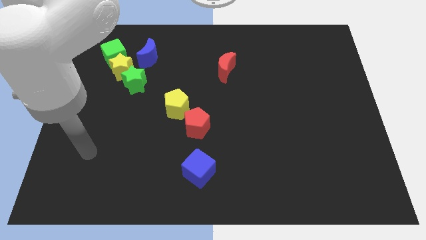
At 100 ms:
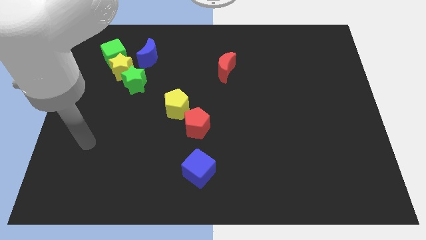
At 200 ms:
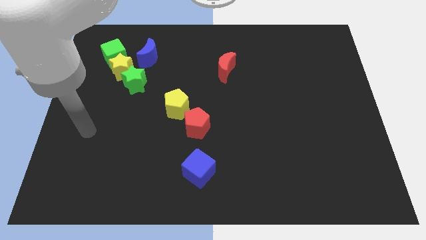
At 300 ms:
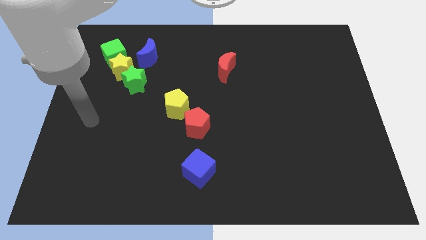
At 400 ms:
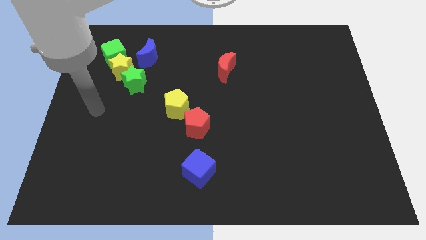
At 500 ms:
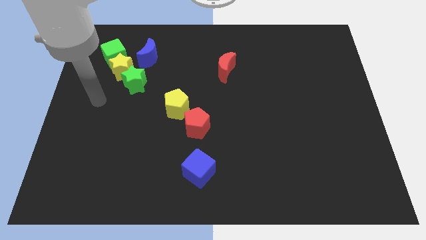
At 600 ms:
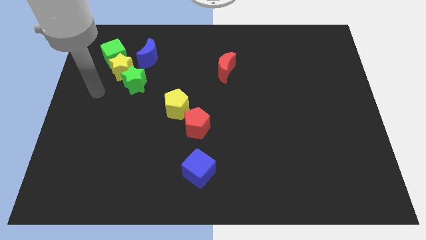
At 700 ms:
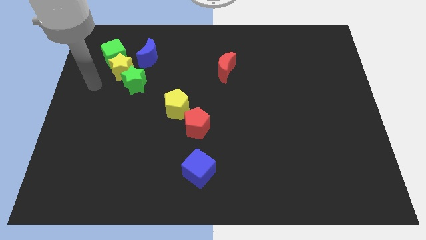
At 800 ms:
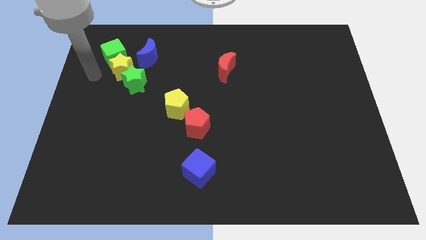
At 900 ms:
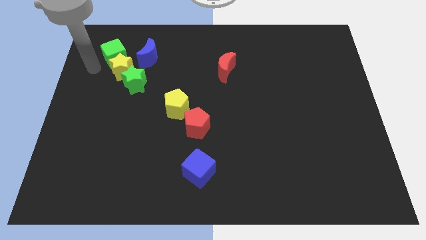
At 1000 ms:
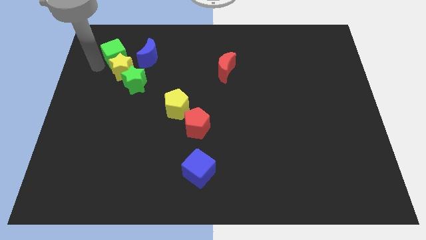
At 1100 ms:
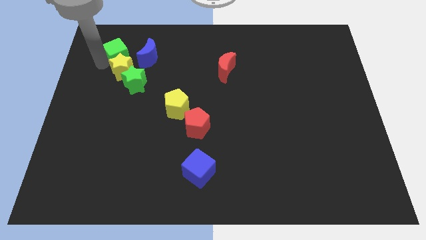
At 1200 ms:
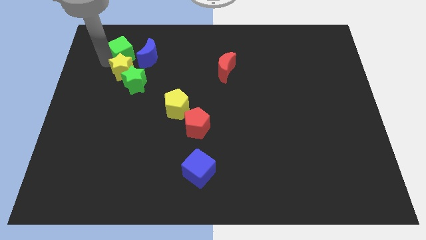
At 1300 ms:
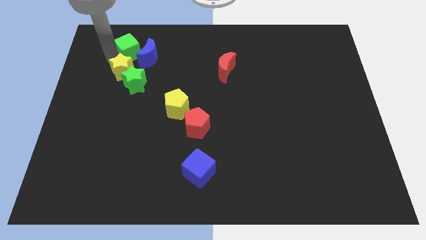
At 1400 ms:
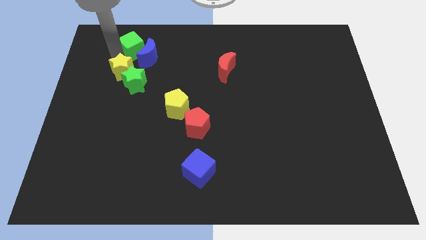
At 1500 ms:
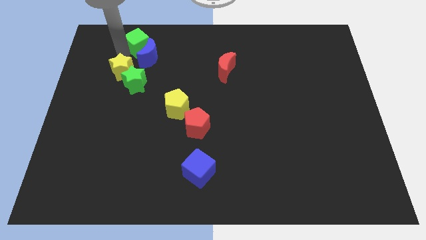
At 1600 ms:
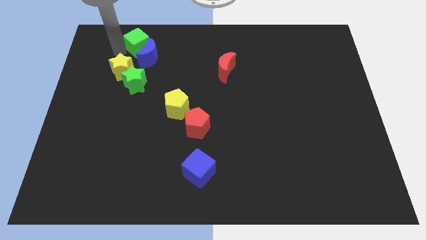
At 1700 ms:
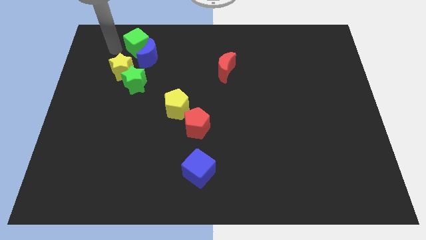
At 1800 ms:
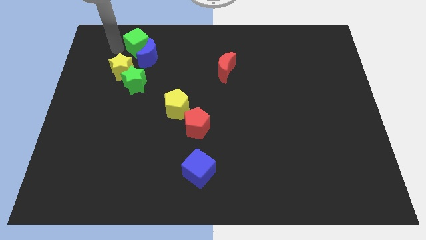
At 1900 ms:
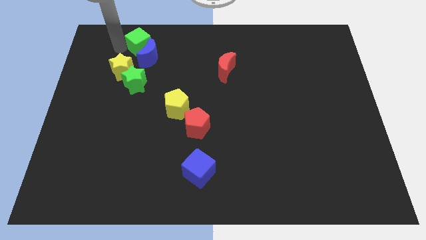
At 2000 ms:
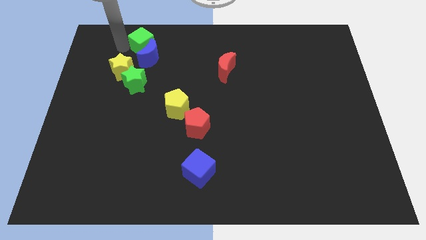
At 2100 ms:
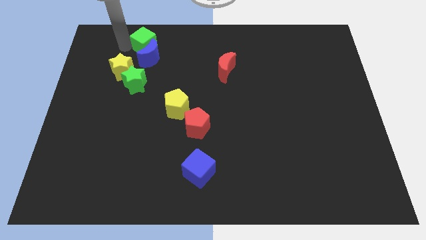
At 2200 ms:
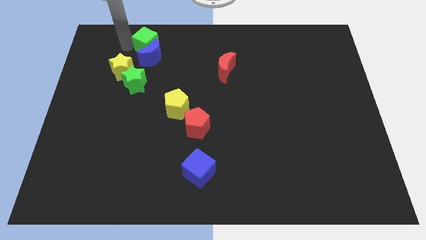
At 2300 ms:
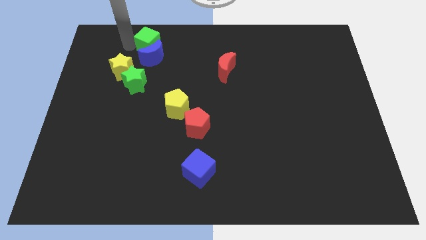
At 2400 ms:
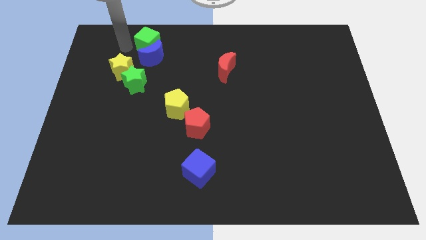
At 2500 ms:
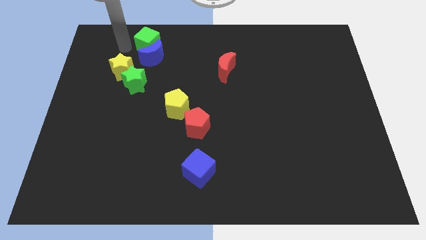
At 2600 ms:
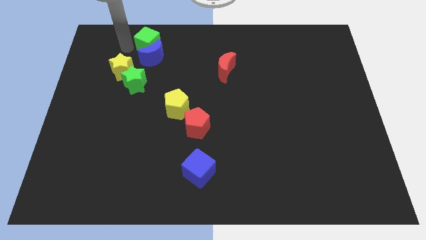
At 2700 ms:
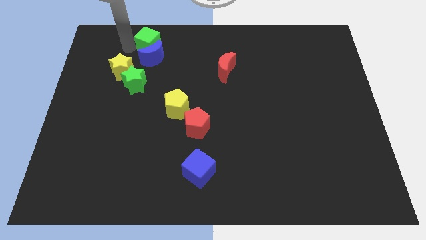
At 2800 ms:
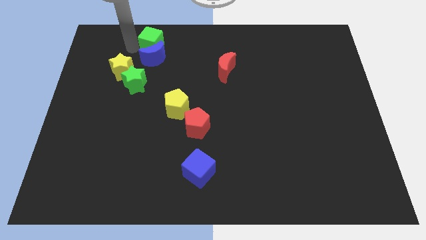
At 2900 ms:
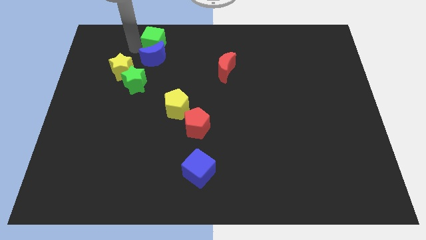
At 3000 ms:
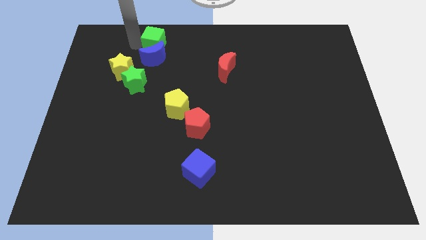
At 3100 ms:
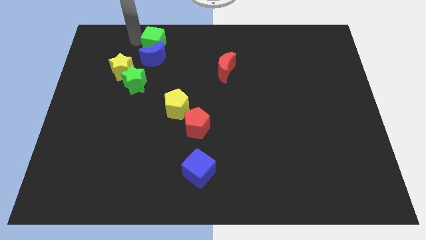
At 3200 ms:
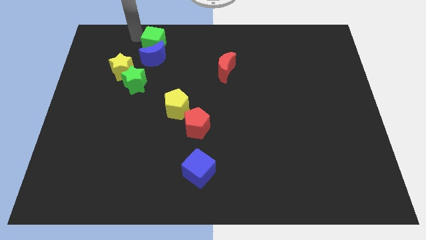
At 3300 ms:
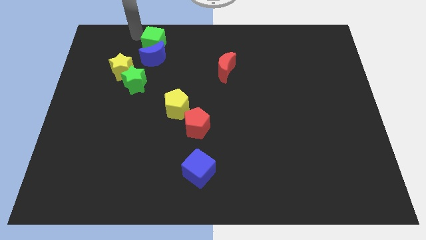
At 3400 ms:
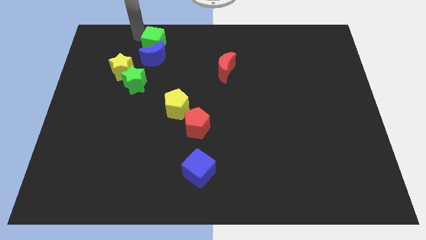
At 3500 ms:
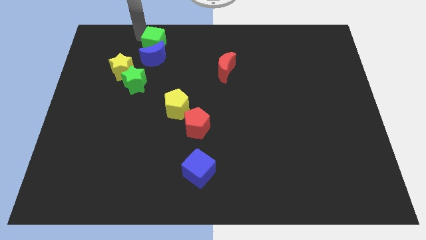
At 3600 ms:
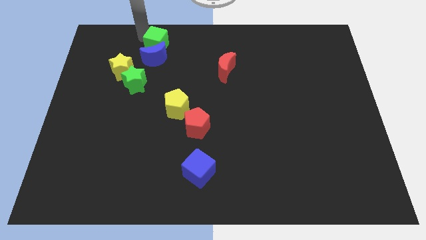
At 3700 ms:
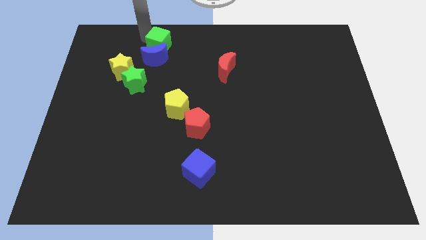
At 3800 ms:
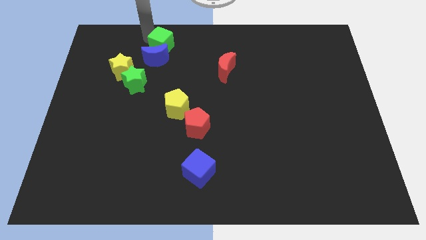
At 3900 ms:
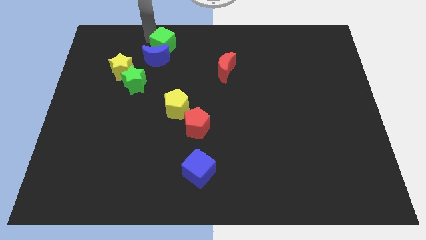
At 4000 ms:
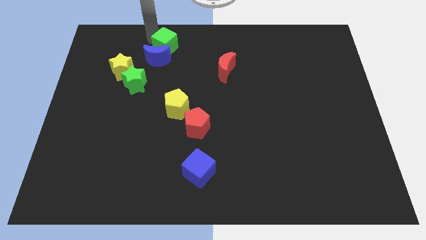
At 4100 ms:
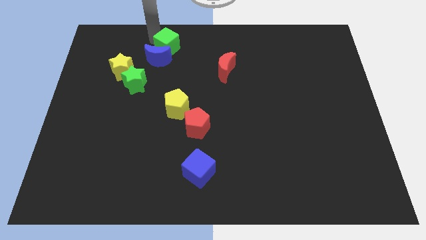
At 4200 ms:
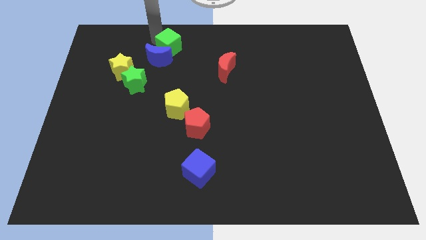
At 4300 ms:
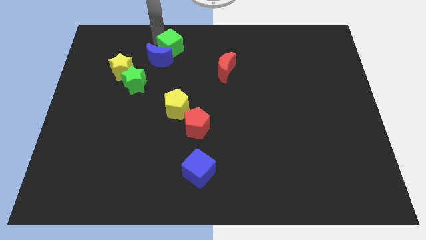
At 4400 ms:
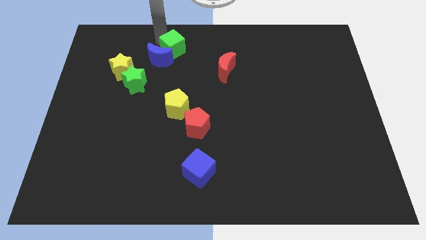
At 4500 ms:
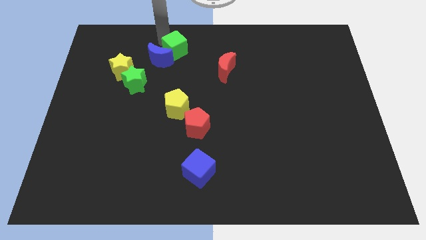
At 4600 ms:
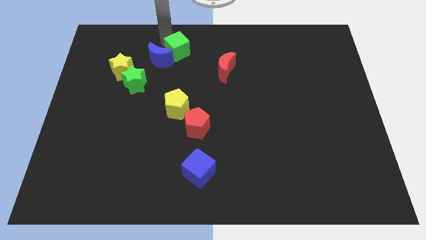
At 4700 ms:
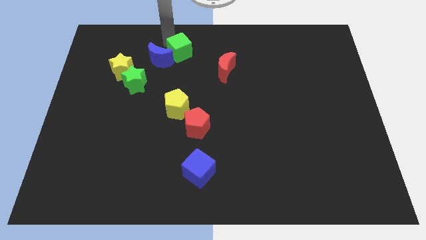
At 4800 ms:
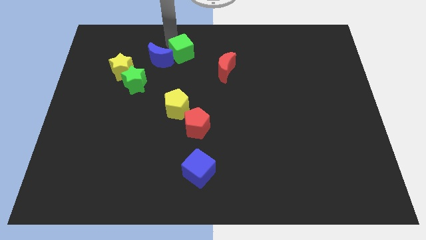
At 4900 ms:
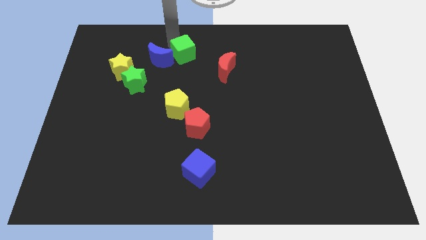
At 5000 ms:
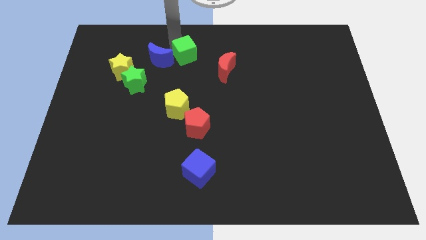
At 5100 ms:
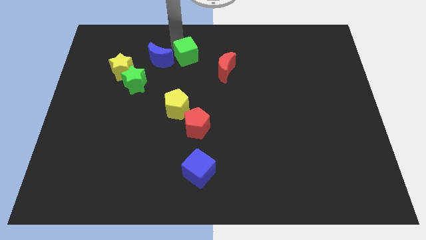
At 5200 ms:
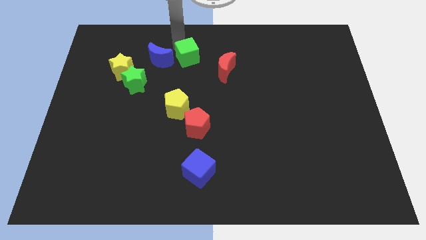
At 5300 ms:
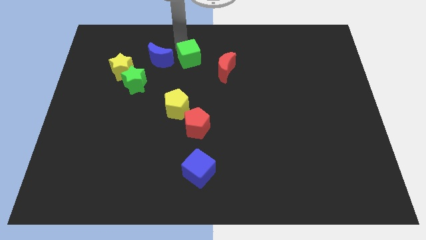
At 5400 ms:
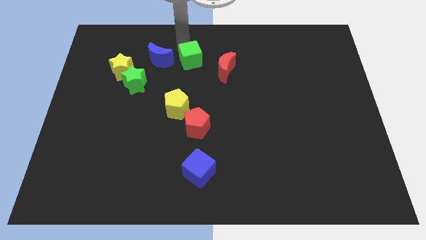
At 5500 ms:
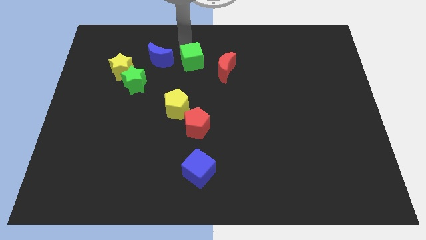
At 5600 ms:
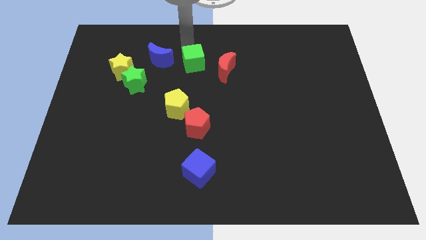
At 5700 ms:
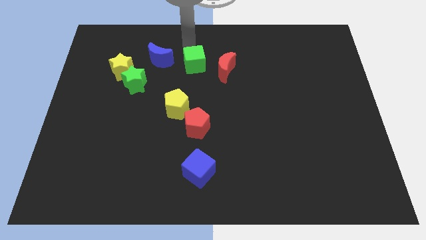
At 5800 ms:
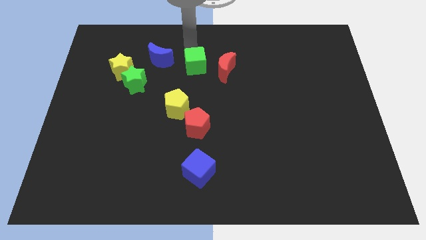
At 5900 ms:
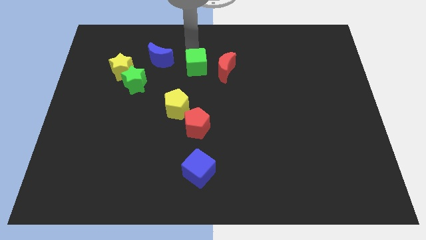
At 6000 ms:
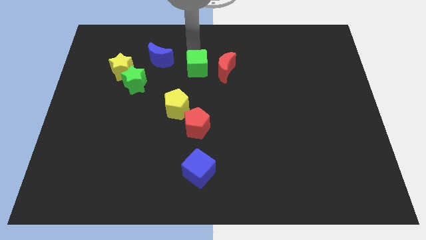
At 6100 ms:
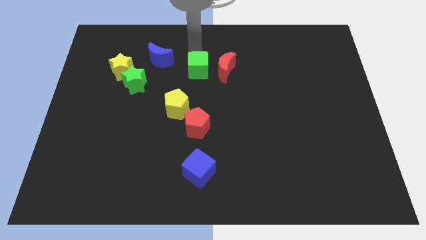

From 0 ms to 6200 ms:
move the green cube to the bottom left of the red moon

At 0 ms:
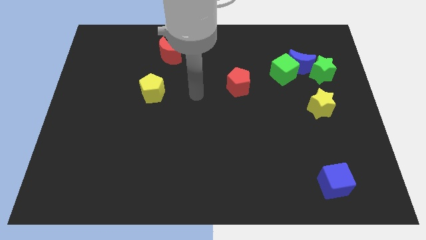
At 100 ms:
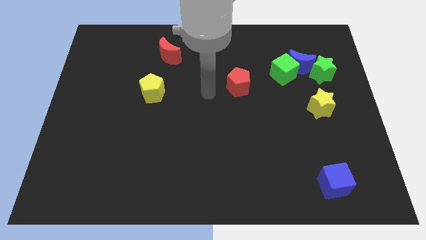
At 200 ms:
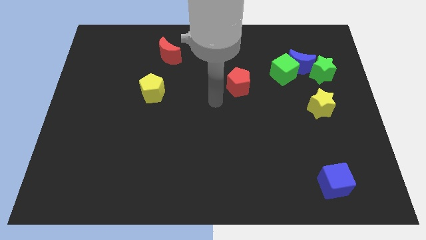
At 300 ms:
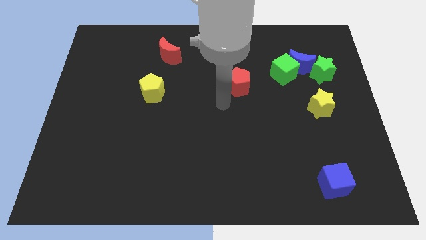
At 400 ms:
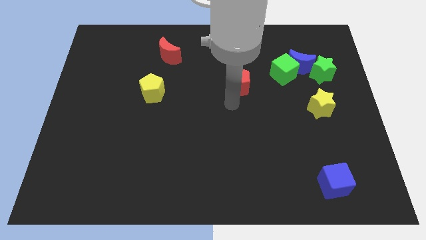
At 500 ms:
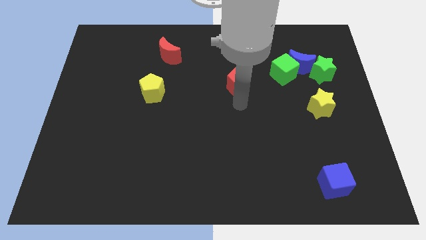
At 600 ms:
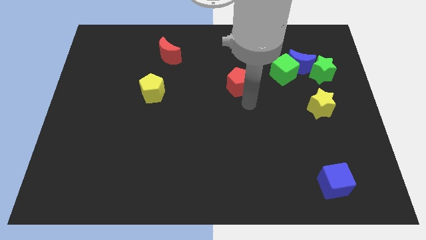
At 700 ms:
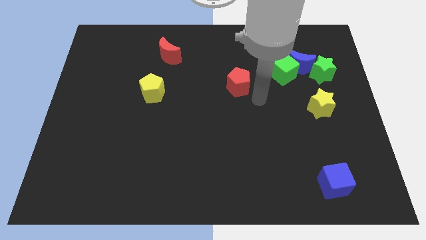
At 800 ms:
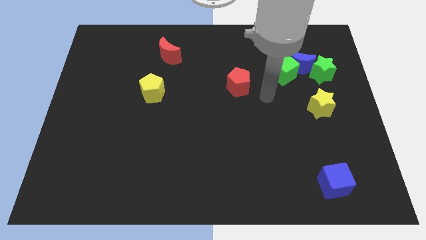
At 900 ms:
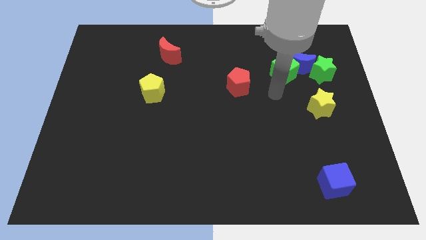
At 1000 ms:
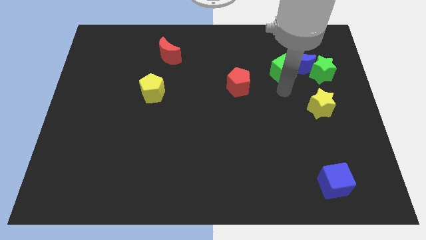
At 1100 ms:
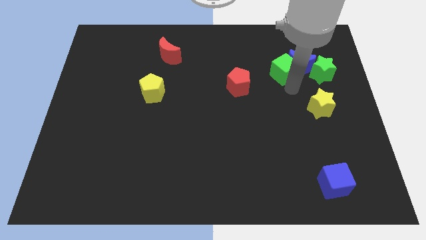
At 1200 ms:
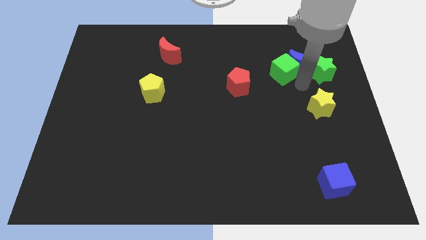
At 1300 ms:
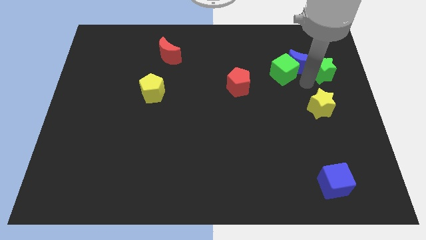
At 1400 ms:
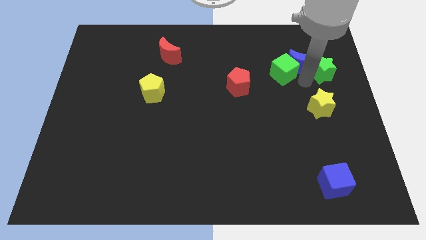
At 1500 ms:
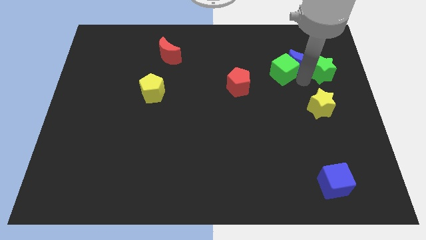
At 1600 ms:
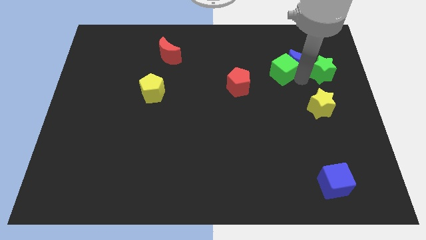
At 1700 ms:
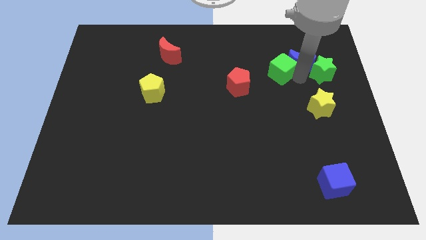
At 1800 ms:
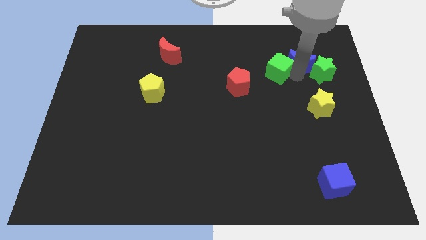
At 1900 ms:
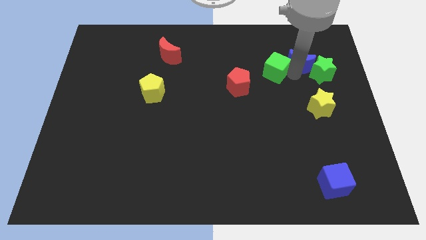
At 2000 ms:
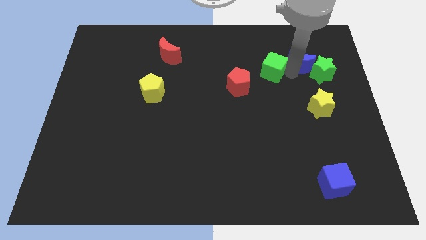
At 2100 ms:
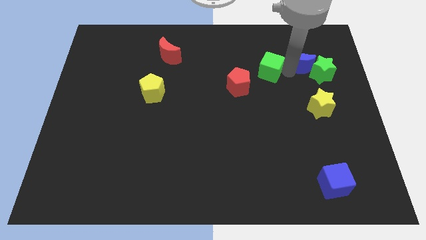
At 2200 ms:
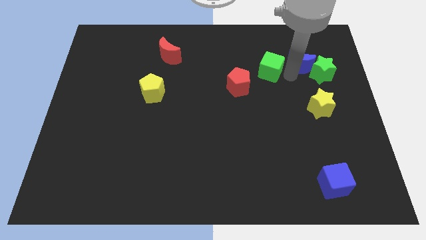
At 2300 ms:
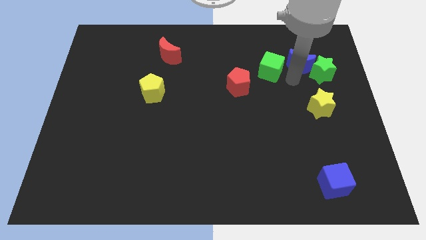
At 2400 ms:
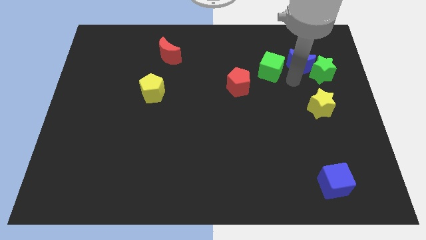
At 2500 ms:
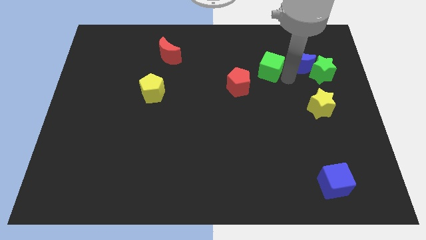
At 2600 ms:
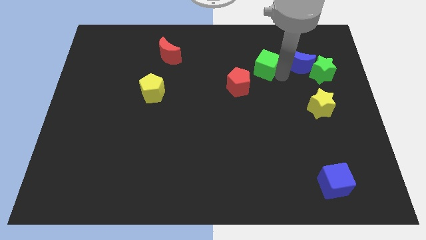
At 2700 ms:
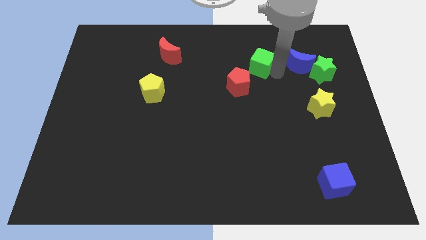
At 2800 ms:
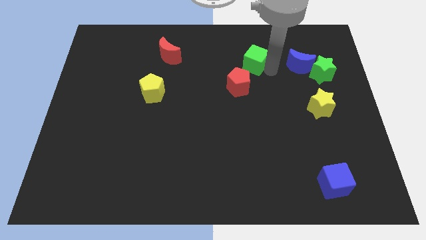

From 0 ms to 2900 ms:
push the green cube to the top side of the red pentagon
